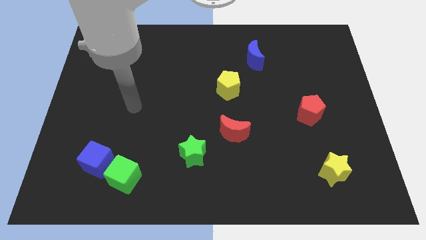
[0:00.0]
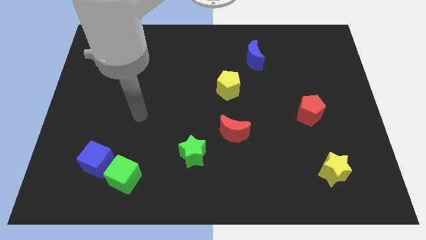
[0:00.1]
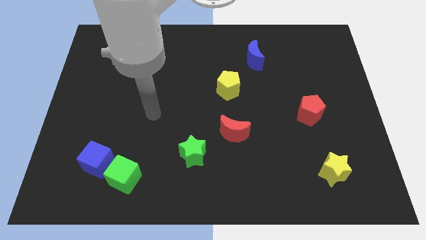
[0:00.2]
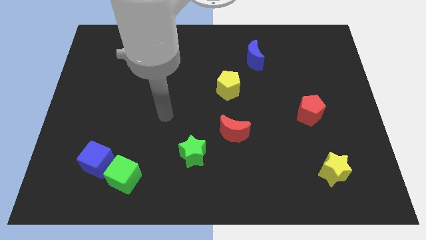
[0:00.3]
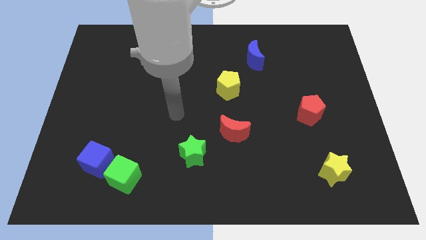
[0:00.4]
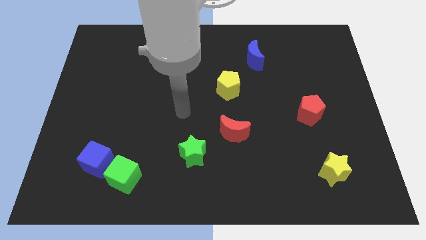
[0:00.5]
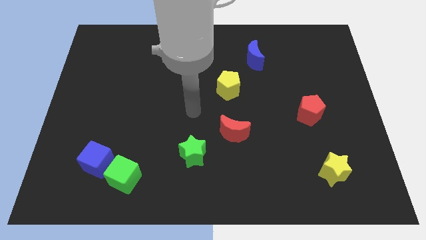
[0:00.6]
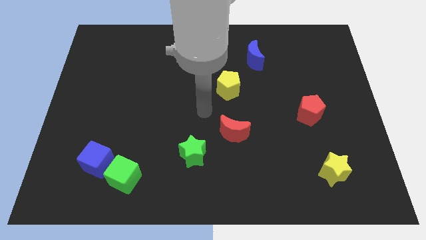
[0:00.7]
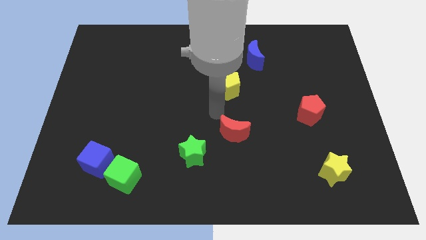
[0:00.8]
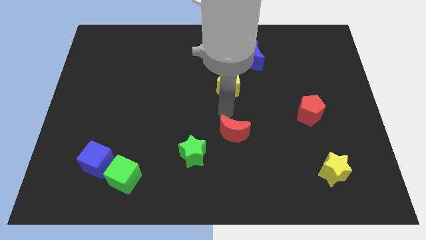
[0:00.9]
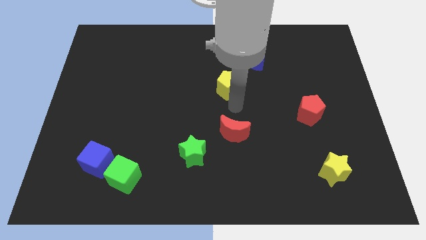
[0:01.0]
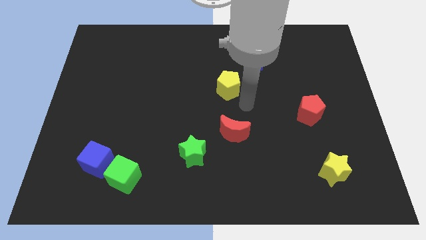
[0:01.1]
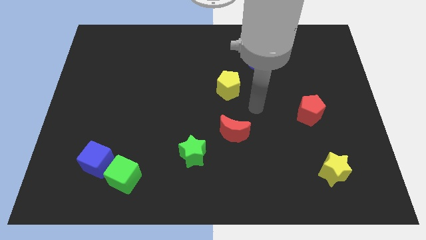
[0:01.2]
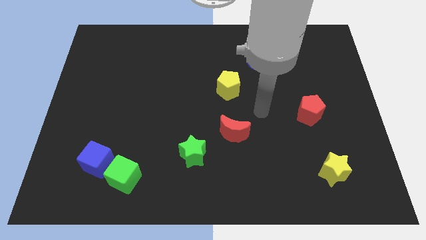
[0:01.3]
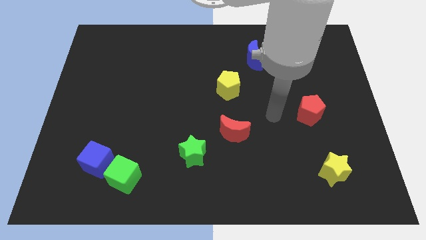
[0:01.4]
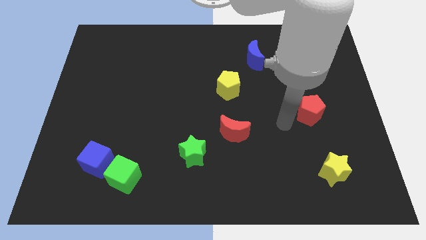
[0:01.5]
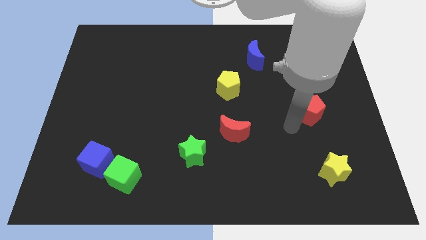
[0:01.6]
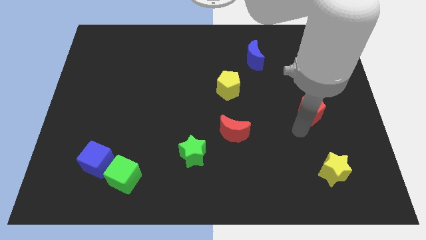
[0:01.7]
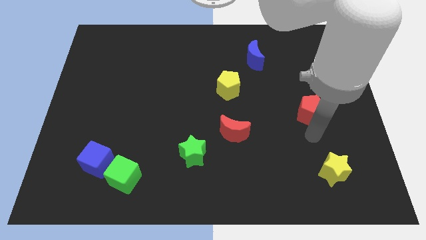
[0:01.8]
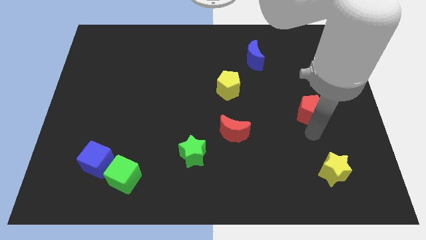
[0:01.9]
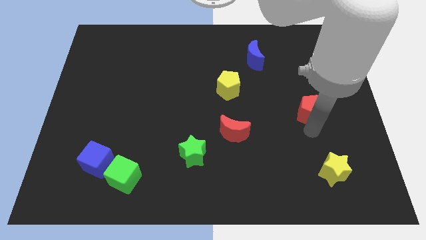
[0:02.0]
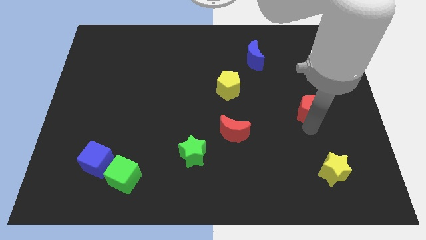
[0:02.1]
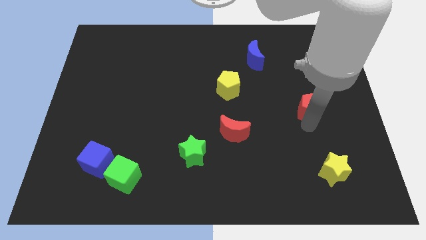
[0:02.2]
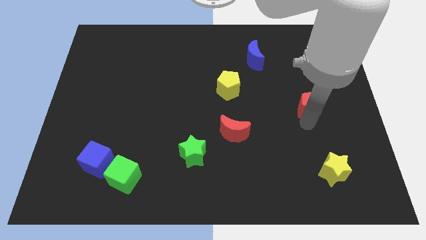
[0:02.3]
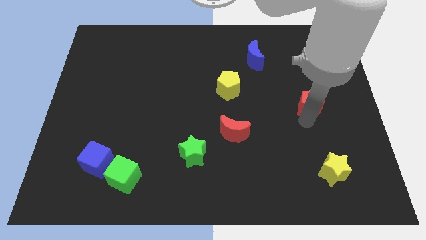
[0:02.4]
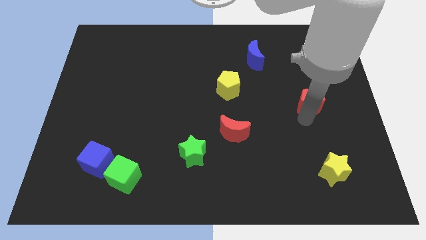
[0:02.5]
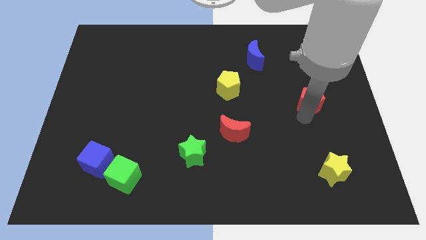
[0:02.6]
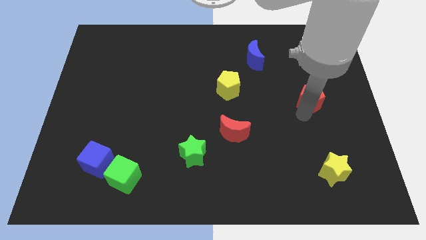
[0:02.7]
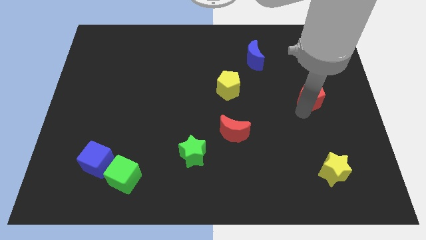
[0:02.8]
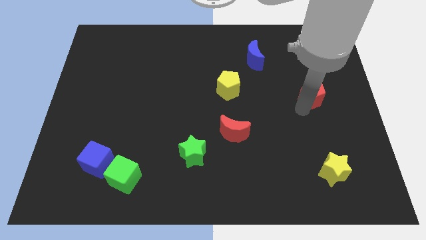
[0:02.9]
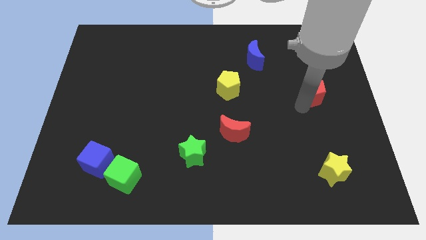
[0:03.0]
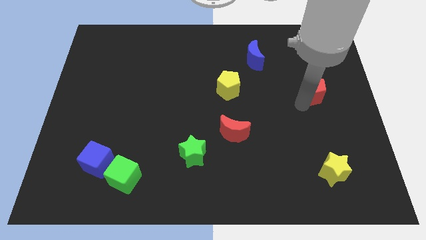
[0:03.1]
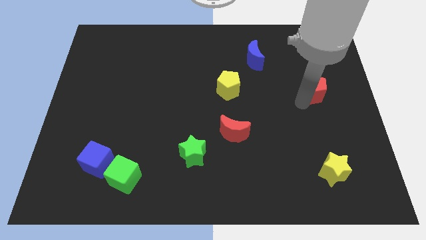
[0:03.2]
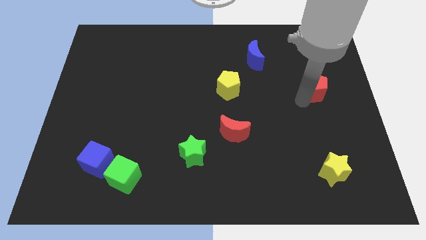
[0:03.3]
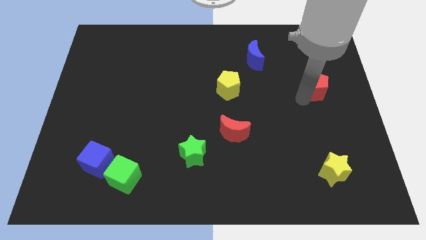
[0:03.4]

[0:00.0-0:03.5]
move the red pentagon upwards a little bit

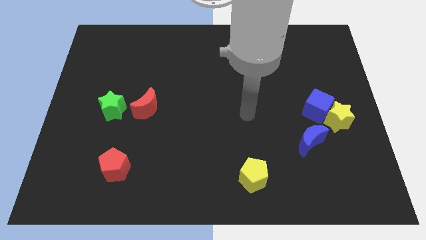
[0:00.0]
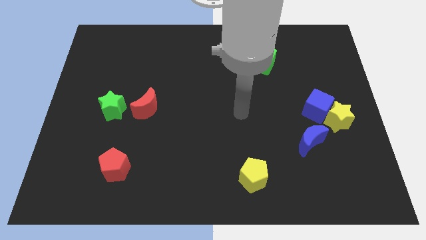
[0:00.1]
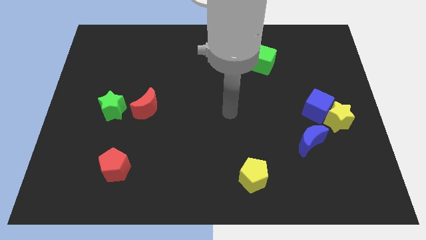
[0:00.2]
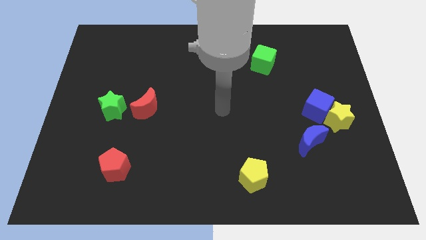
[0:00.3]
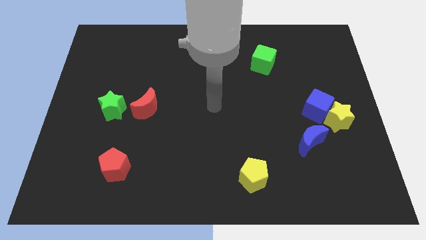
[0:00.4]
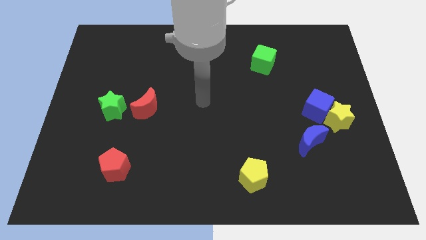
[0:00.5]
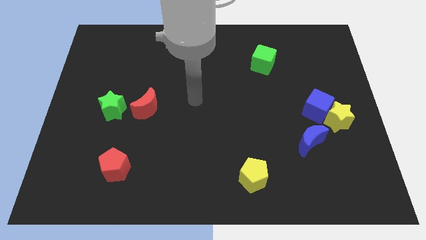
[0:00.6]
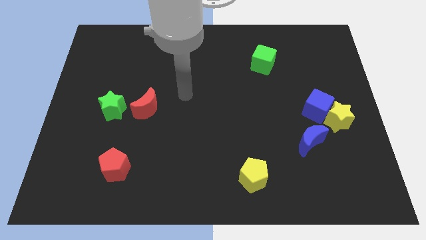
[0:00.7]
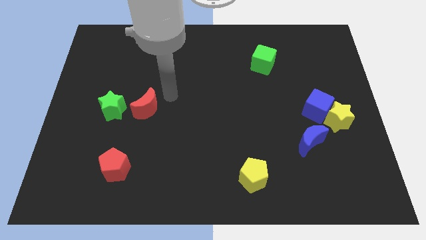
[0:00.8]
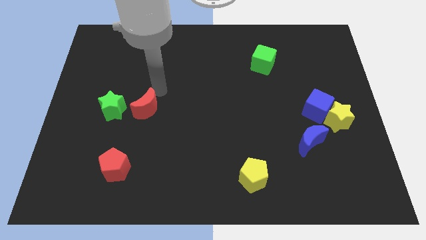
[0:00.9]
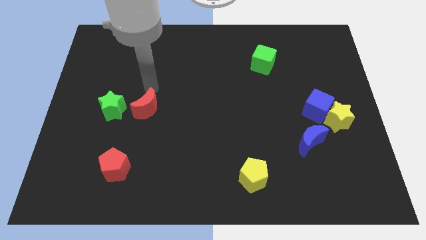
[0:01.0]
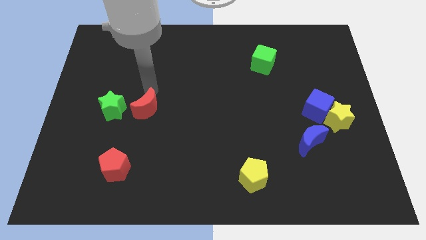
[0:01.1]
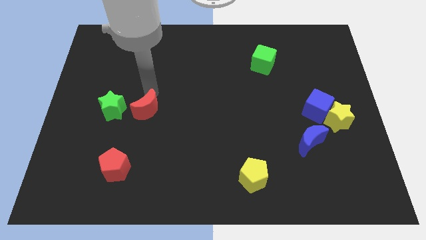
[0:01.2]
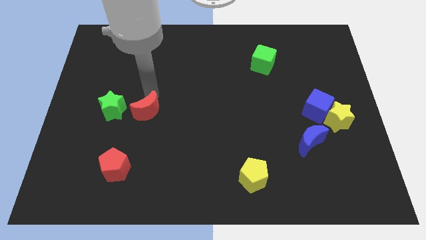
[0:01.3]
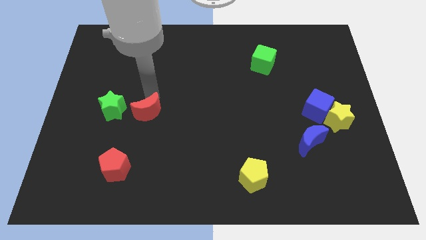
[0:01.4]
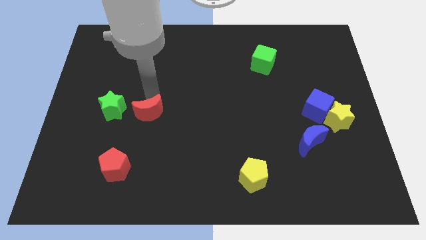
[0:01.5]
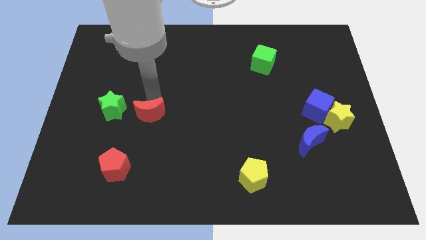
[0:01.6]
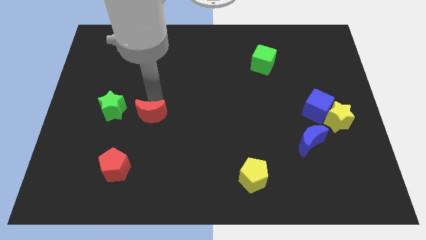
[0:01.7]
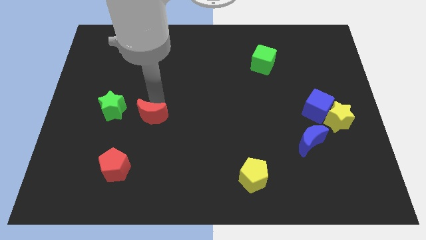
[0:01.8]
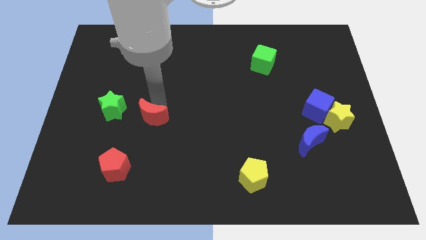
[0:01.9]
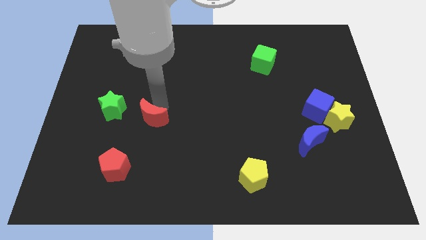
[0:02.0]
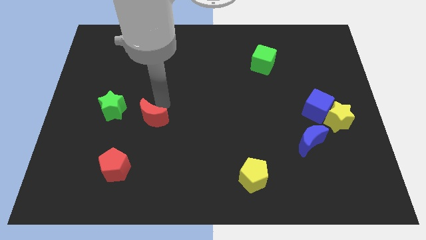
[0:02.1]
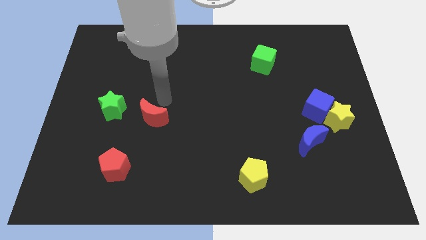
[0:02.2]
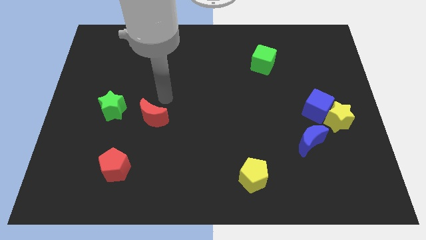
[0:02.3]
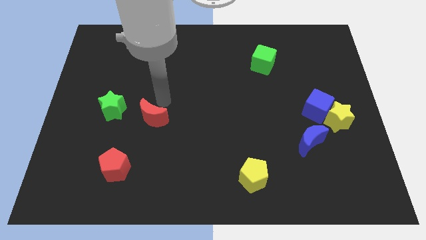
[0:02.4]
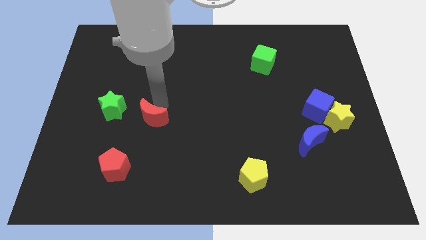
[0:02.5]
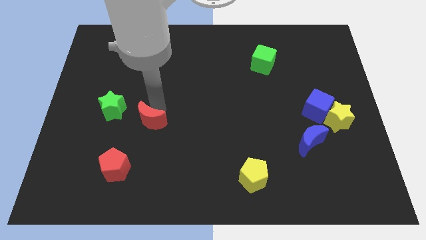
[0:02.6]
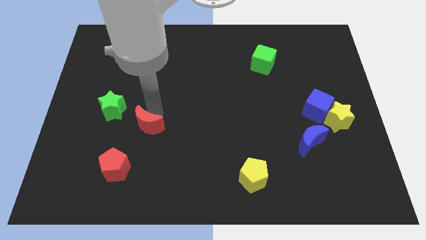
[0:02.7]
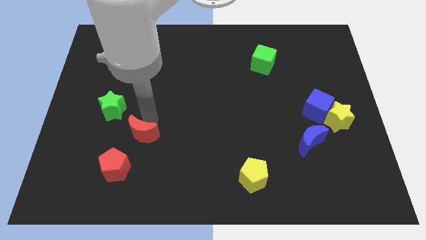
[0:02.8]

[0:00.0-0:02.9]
move the red moon downwards somewhat

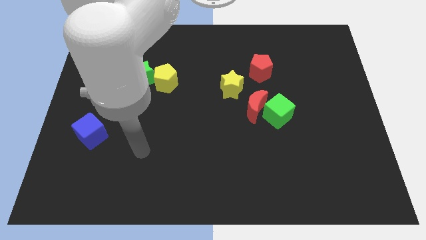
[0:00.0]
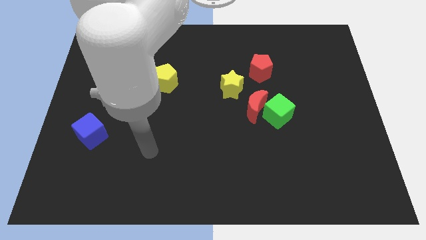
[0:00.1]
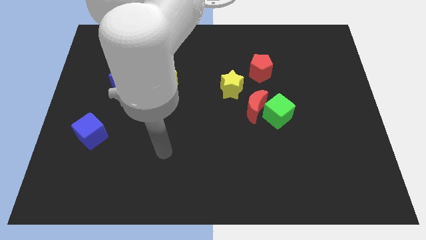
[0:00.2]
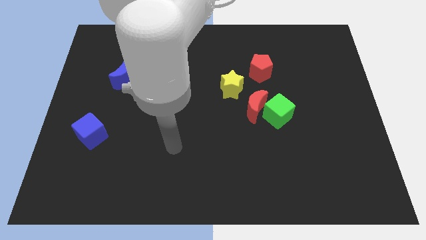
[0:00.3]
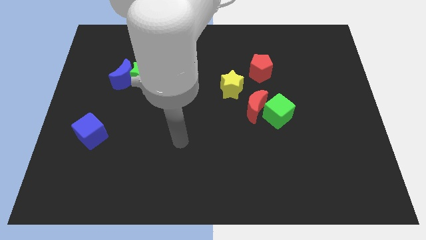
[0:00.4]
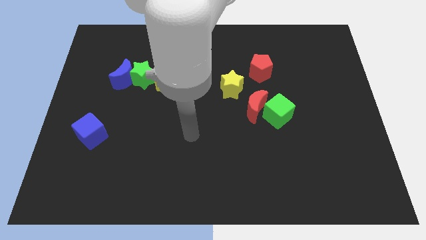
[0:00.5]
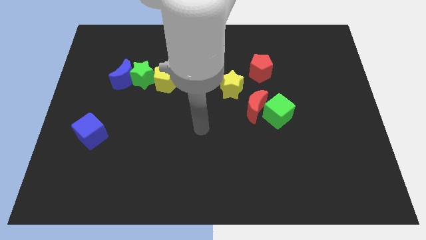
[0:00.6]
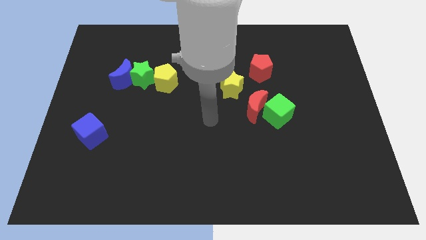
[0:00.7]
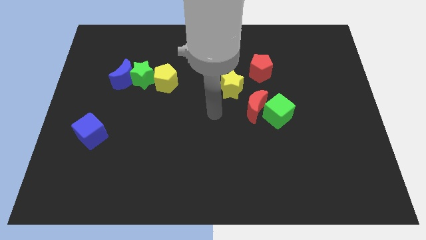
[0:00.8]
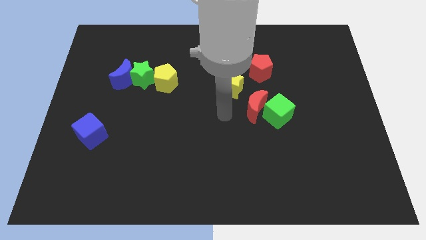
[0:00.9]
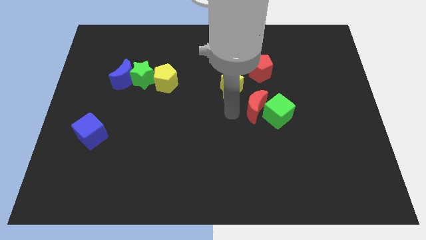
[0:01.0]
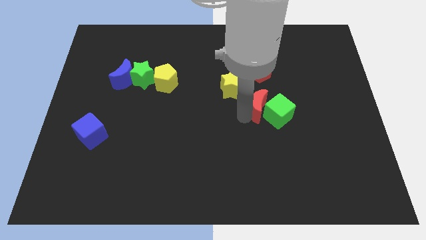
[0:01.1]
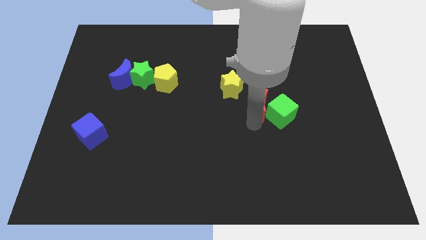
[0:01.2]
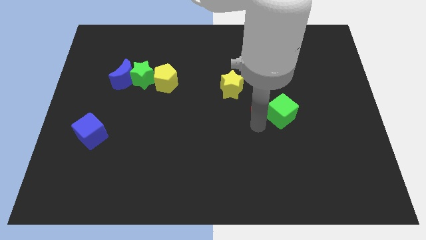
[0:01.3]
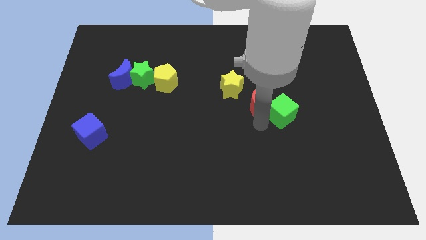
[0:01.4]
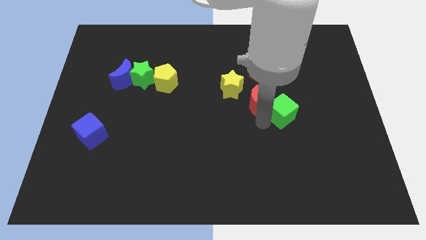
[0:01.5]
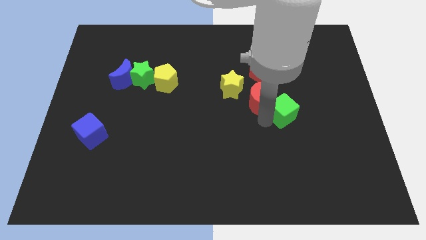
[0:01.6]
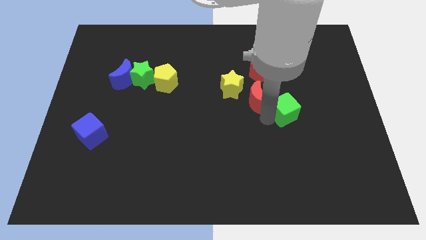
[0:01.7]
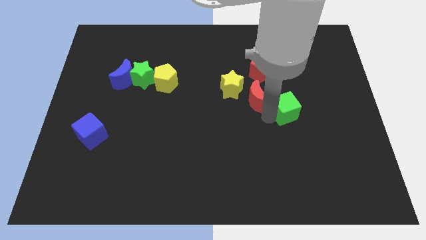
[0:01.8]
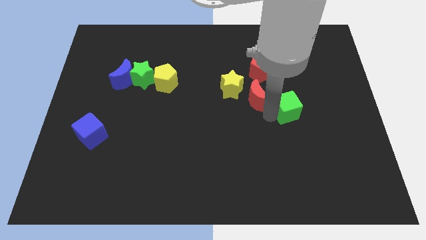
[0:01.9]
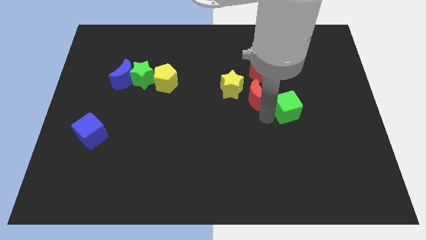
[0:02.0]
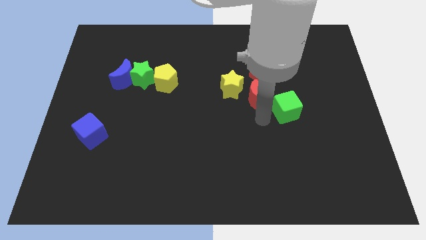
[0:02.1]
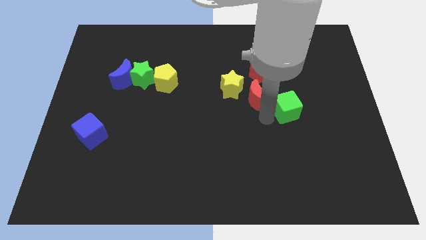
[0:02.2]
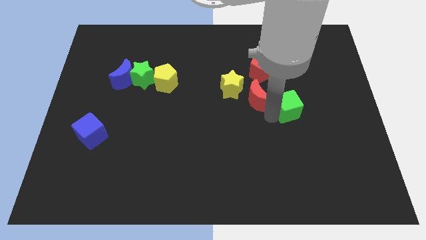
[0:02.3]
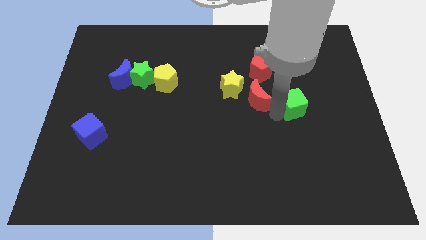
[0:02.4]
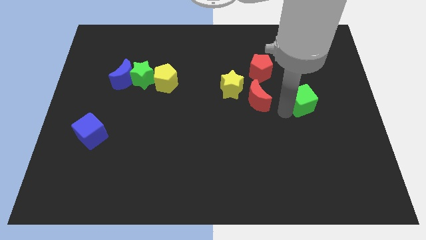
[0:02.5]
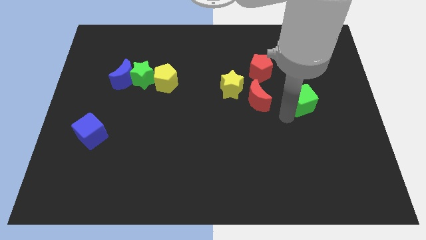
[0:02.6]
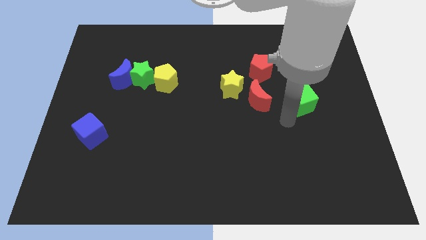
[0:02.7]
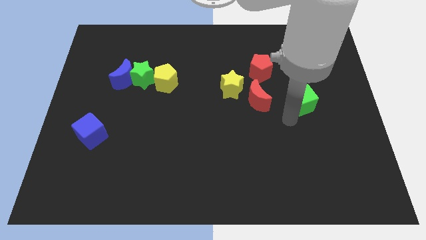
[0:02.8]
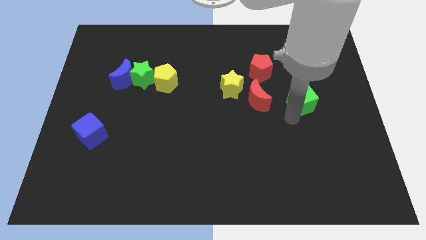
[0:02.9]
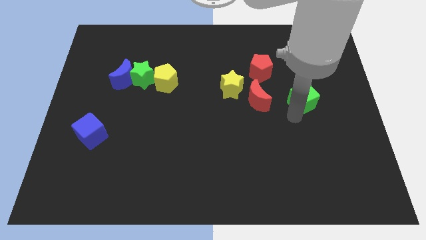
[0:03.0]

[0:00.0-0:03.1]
slide the green cube diagonally upwards and to the right a little
